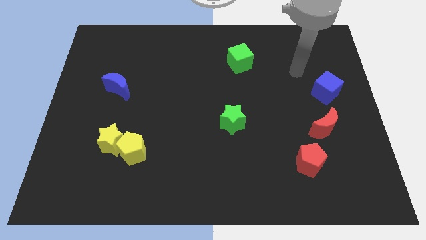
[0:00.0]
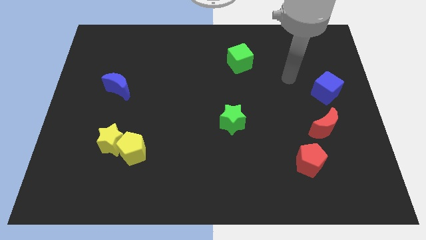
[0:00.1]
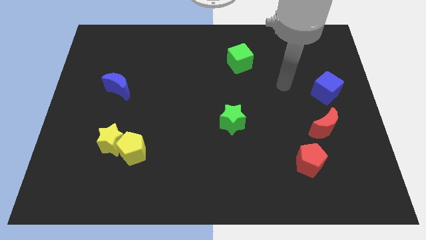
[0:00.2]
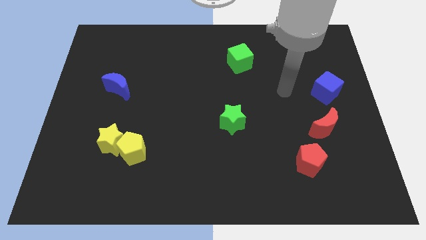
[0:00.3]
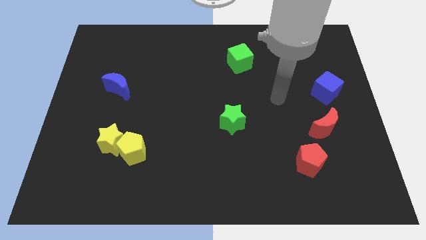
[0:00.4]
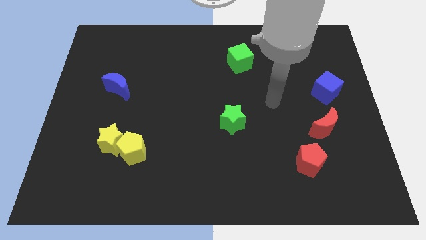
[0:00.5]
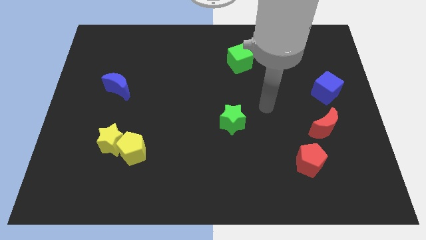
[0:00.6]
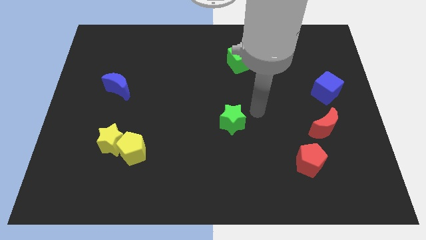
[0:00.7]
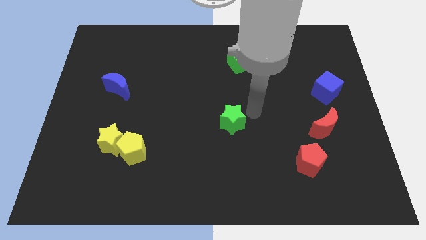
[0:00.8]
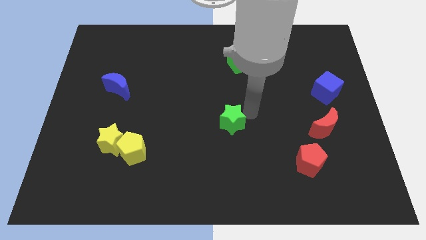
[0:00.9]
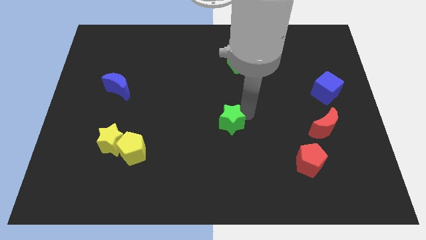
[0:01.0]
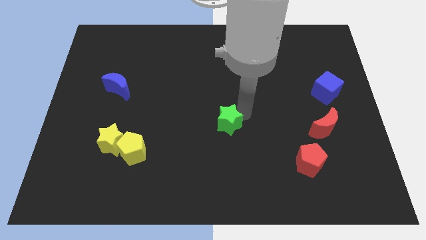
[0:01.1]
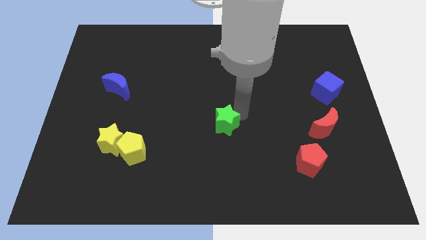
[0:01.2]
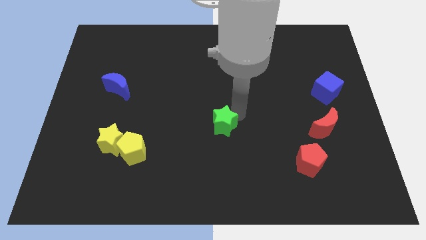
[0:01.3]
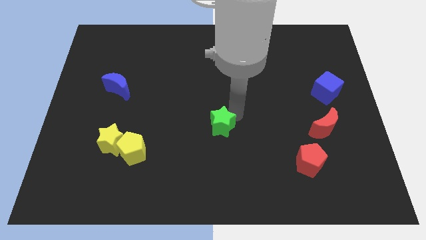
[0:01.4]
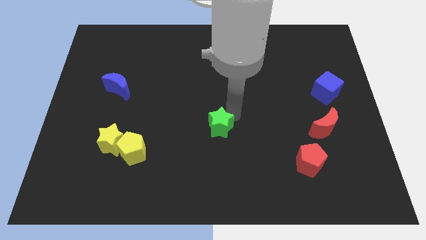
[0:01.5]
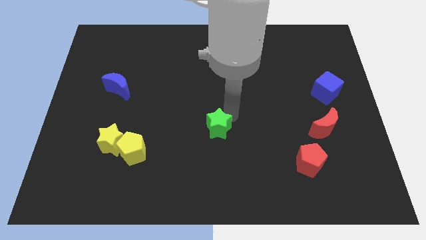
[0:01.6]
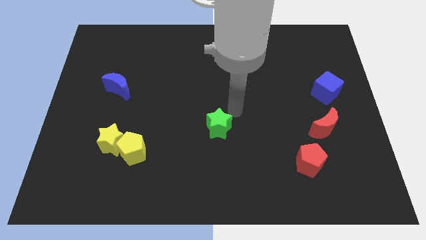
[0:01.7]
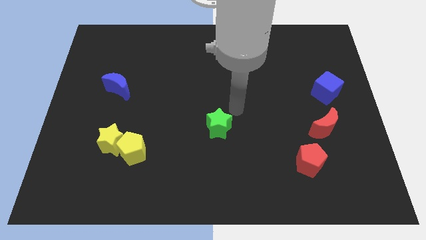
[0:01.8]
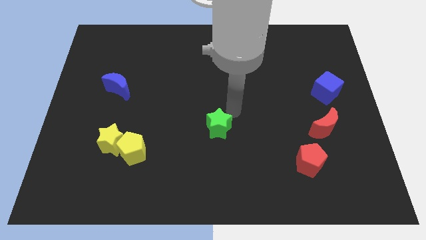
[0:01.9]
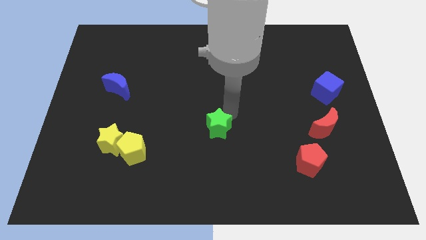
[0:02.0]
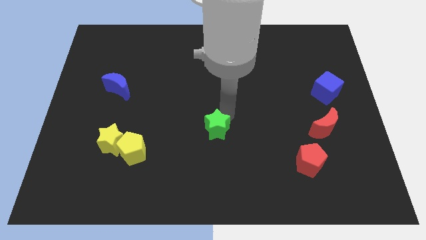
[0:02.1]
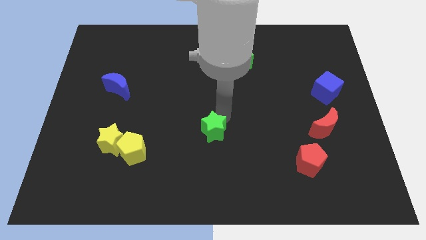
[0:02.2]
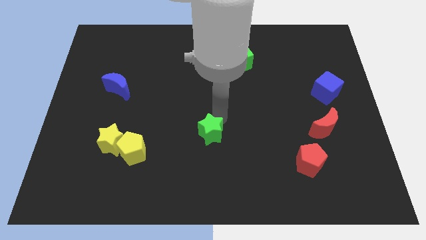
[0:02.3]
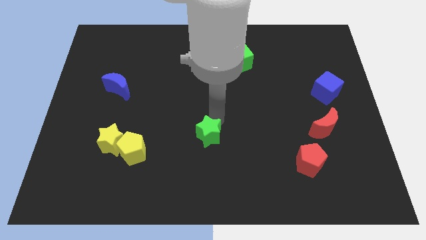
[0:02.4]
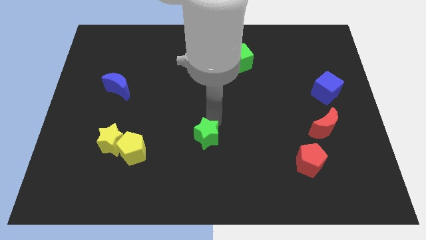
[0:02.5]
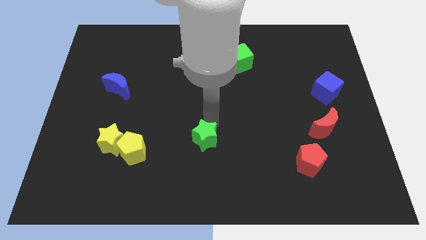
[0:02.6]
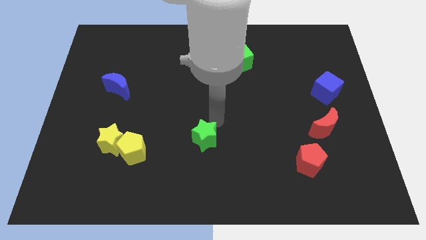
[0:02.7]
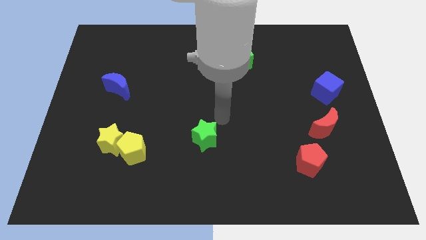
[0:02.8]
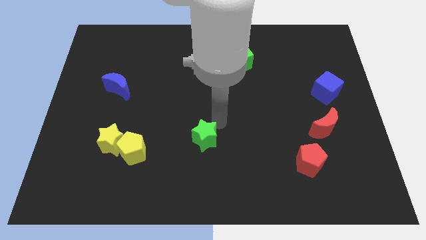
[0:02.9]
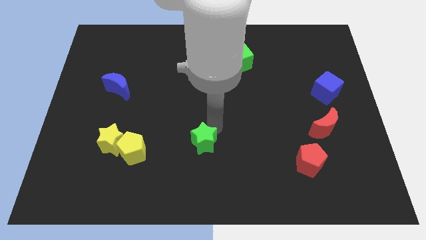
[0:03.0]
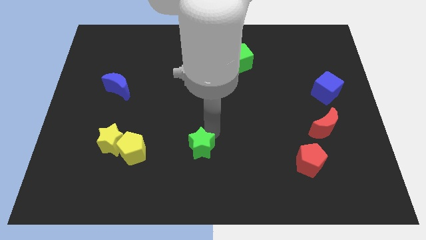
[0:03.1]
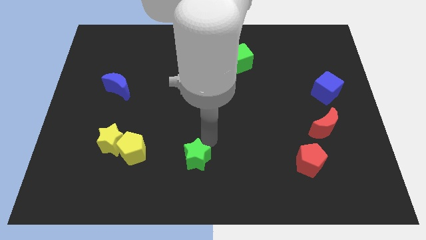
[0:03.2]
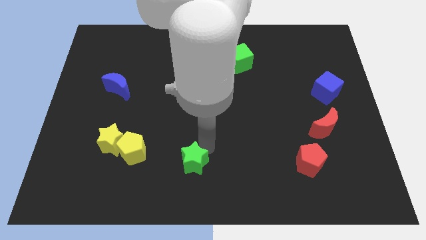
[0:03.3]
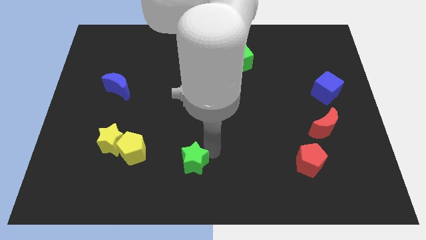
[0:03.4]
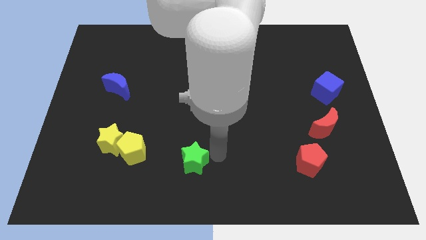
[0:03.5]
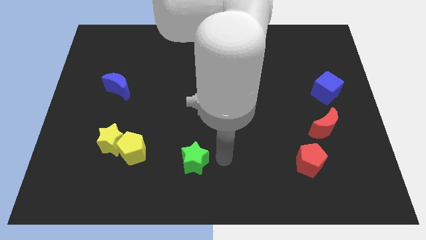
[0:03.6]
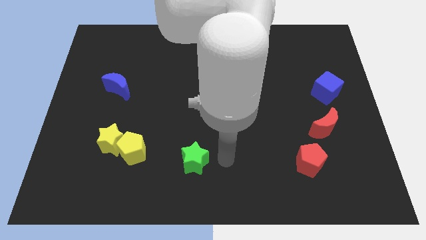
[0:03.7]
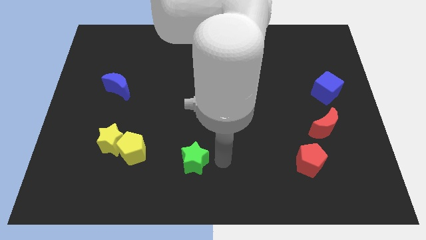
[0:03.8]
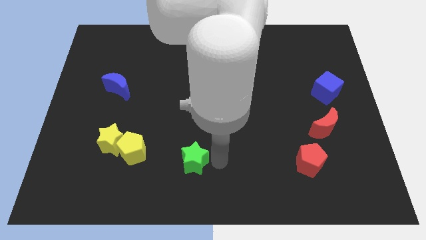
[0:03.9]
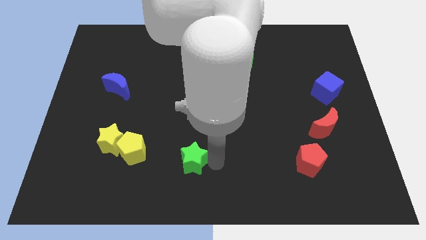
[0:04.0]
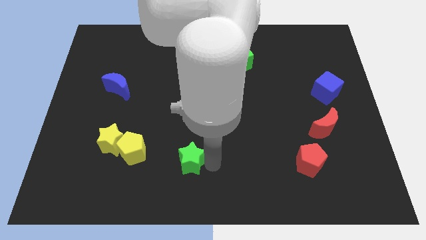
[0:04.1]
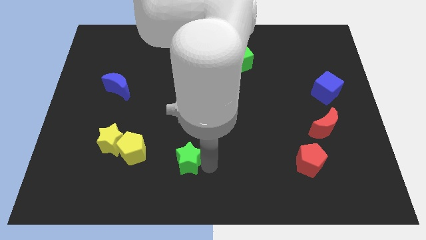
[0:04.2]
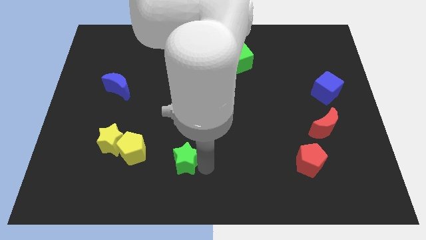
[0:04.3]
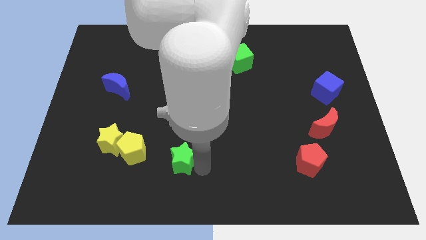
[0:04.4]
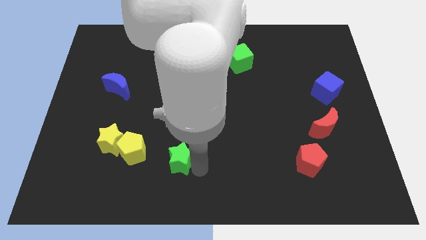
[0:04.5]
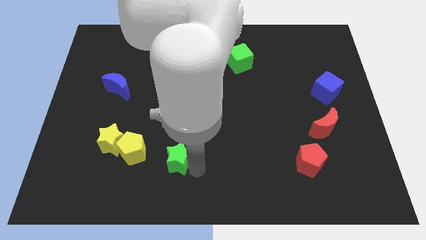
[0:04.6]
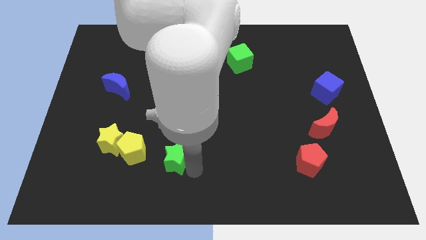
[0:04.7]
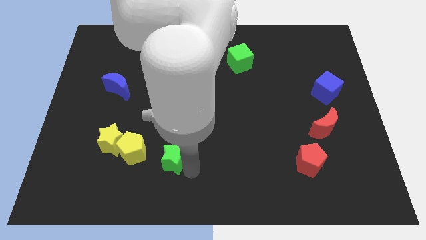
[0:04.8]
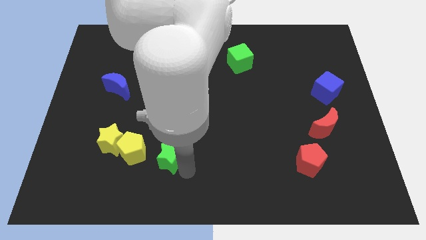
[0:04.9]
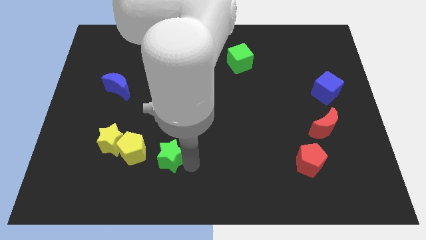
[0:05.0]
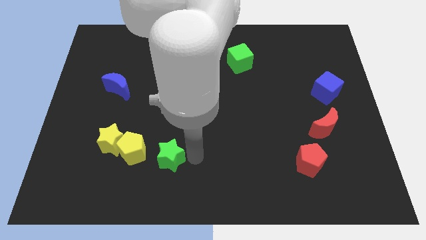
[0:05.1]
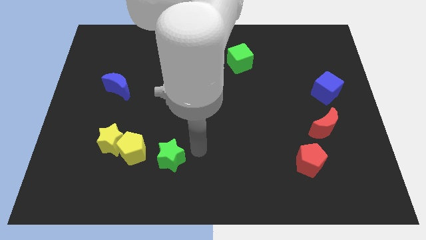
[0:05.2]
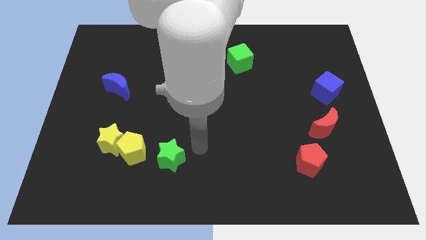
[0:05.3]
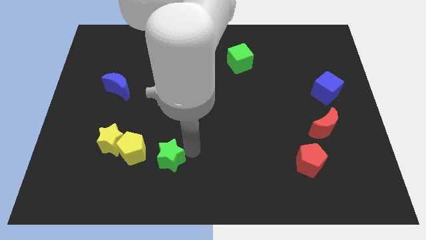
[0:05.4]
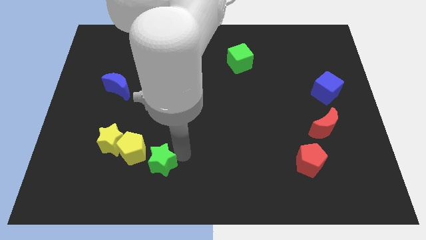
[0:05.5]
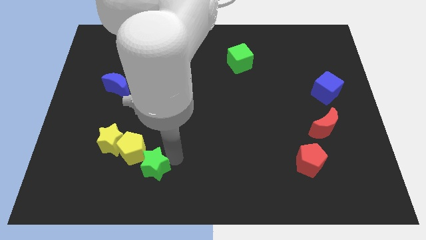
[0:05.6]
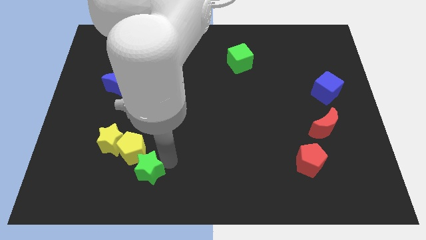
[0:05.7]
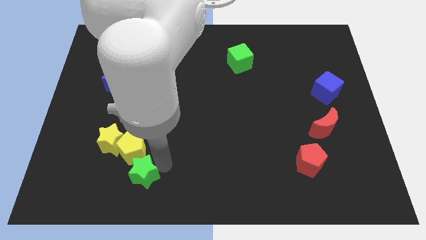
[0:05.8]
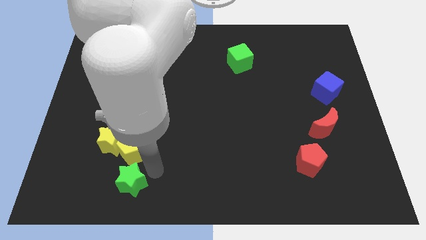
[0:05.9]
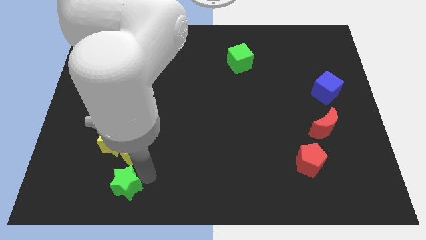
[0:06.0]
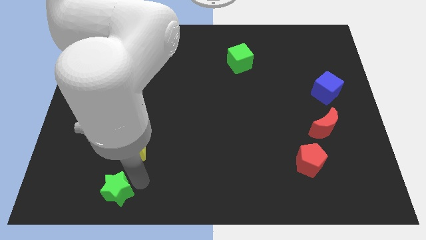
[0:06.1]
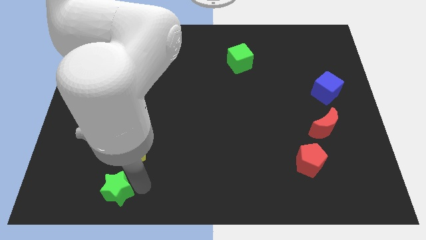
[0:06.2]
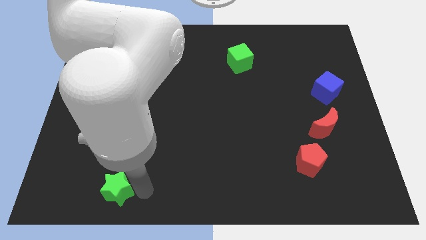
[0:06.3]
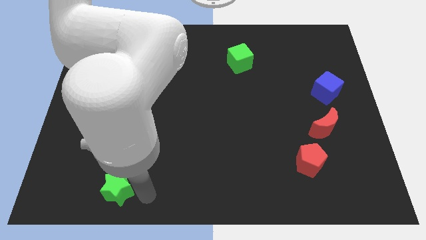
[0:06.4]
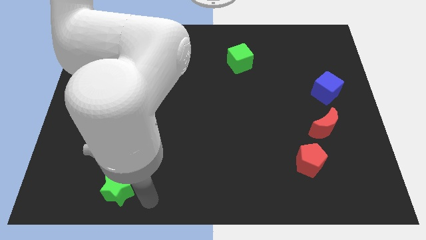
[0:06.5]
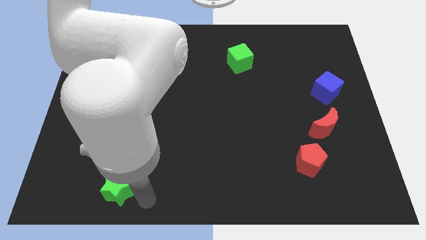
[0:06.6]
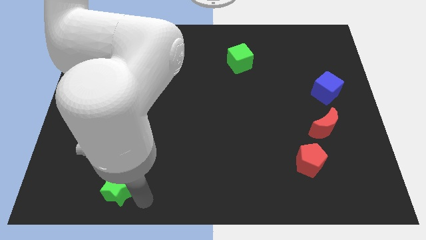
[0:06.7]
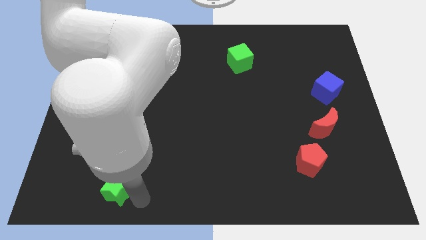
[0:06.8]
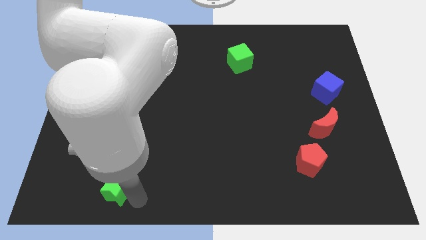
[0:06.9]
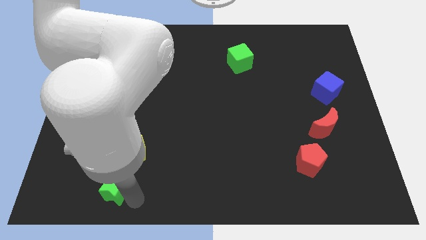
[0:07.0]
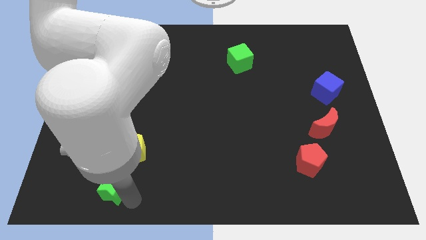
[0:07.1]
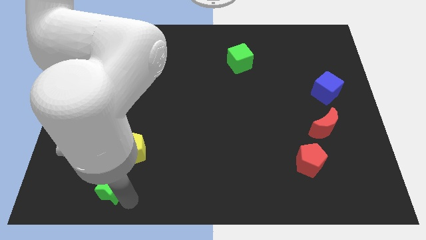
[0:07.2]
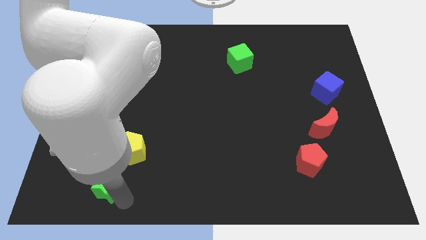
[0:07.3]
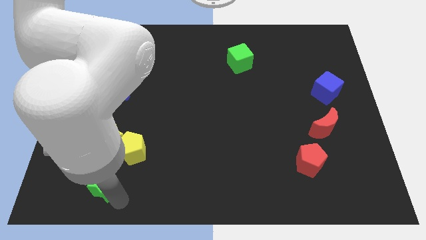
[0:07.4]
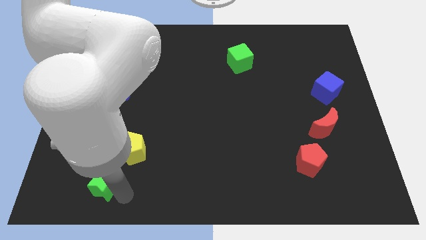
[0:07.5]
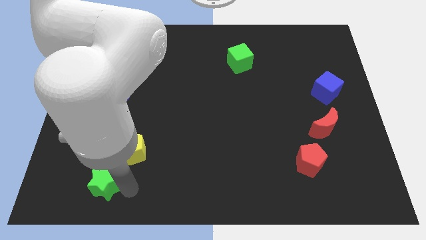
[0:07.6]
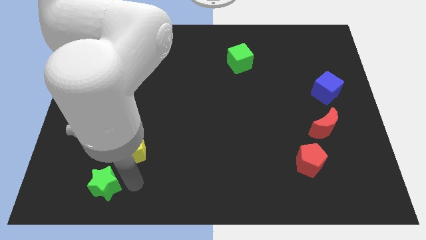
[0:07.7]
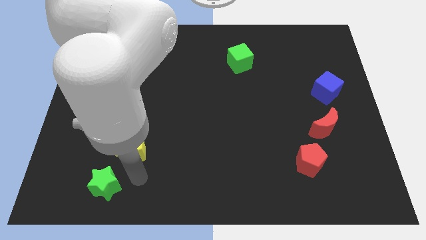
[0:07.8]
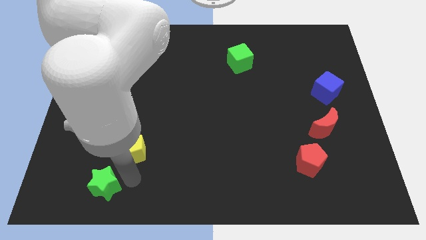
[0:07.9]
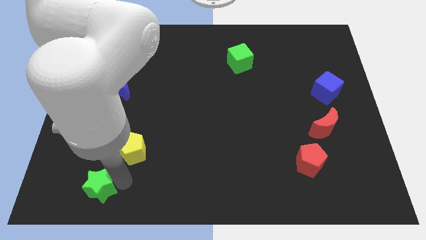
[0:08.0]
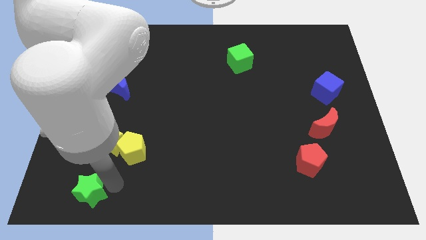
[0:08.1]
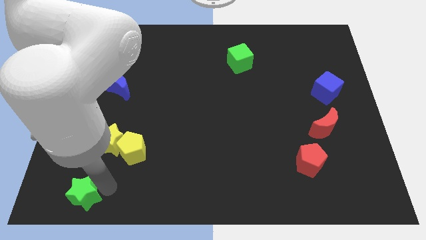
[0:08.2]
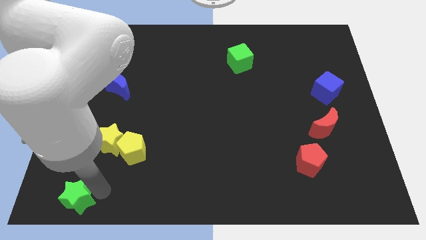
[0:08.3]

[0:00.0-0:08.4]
slide the green star to the bottom left corner
